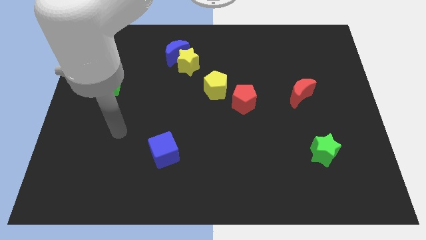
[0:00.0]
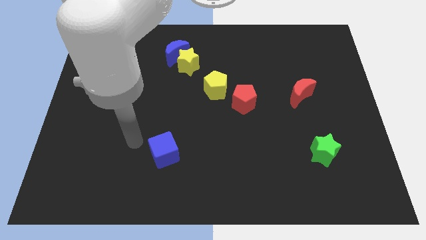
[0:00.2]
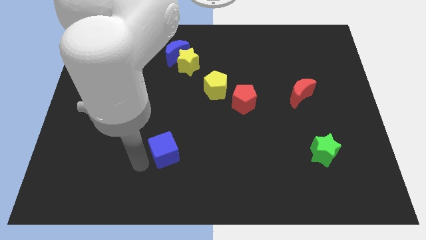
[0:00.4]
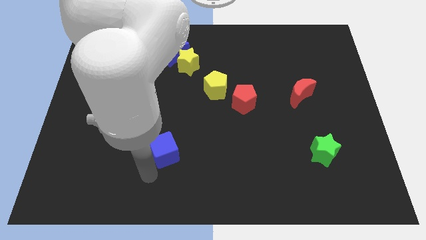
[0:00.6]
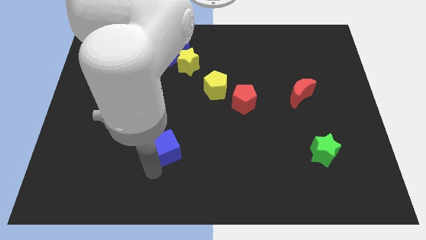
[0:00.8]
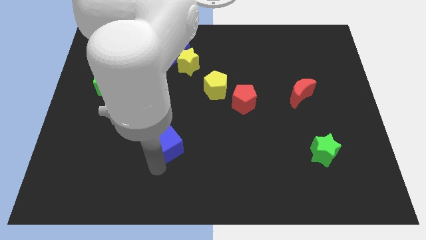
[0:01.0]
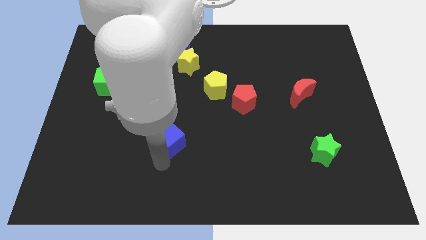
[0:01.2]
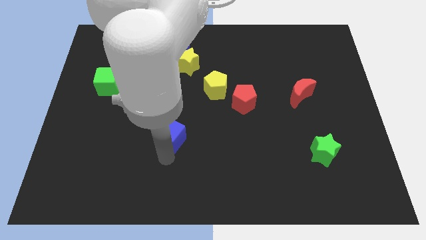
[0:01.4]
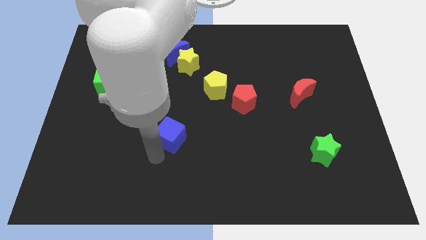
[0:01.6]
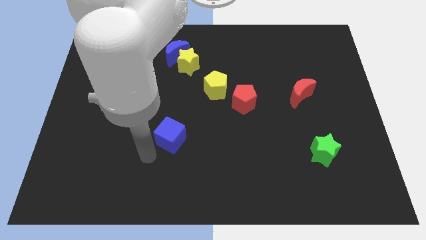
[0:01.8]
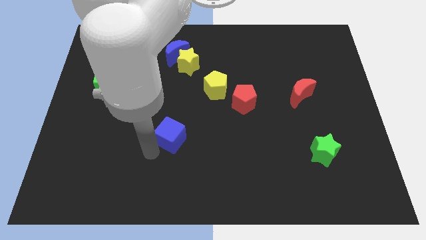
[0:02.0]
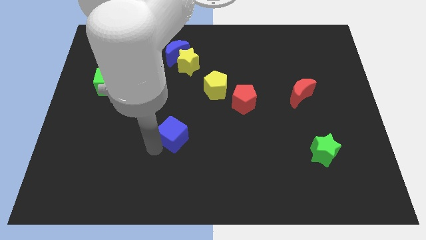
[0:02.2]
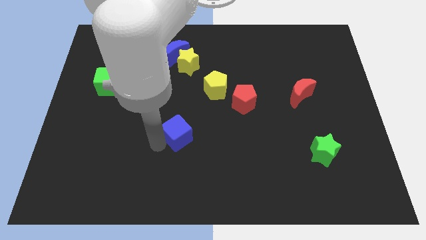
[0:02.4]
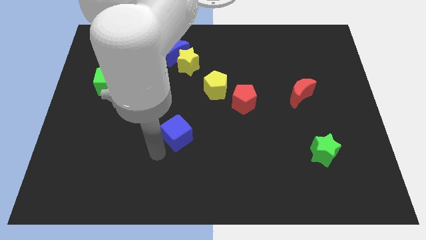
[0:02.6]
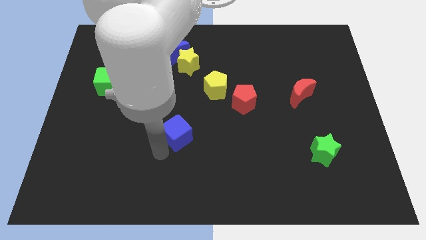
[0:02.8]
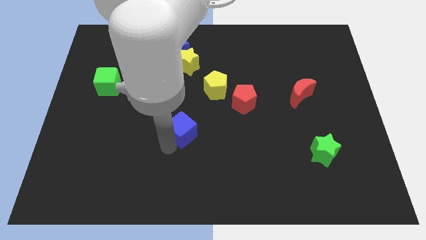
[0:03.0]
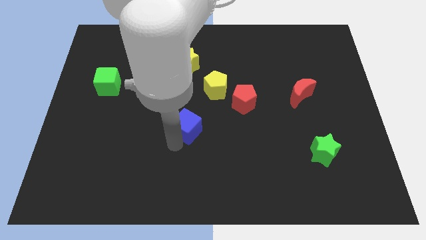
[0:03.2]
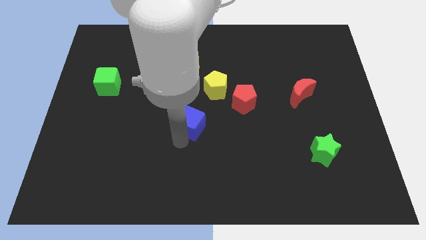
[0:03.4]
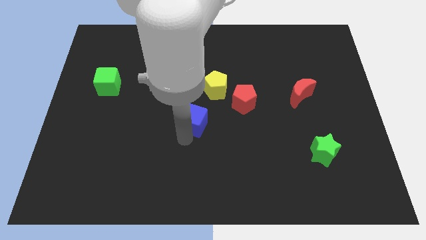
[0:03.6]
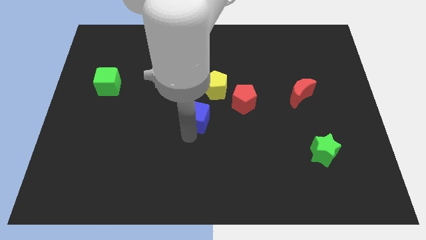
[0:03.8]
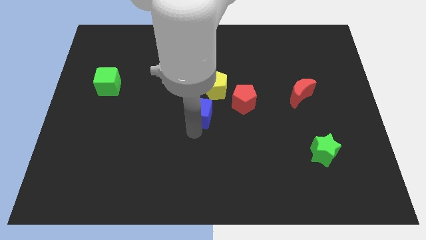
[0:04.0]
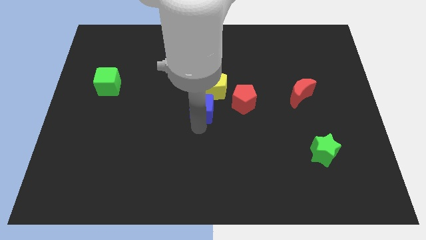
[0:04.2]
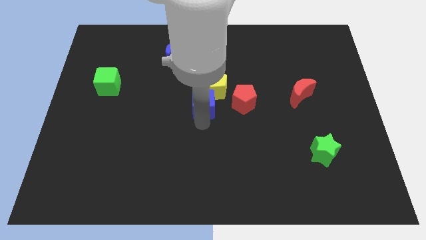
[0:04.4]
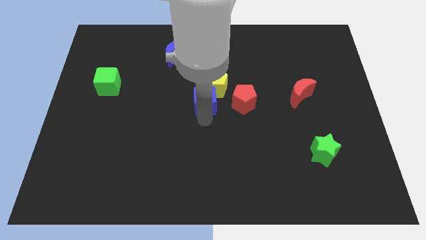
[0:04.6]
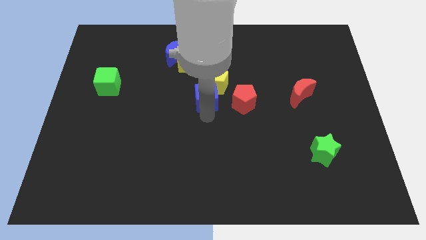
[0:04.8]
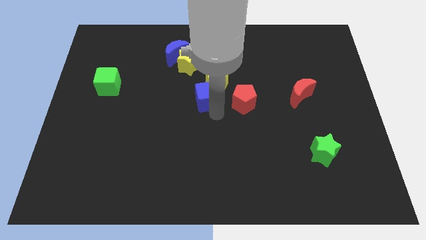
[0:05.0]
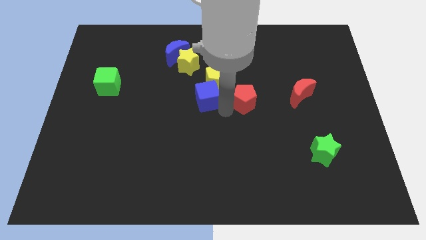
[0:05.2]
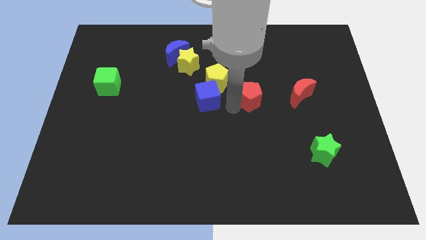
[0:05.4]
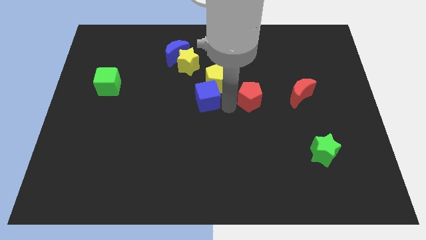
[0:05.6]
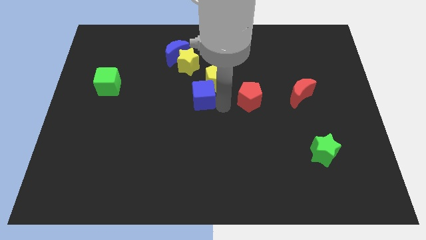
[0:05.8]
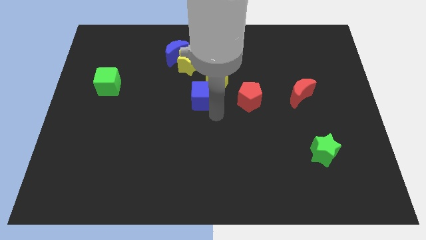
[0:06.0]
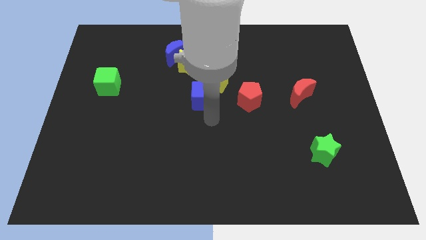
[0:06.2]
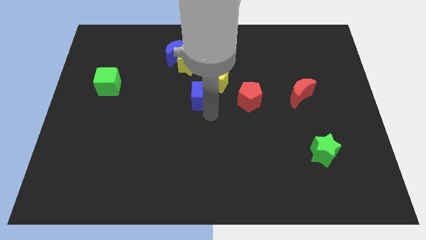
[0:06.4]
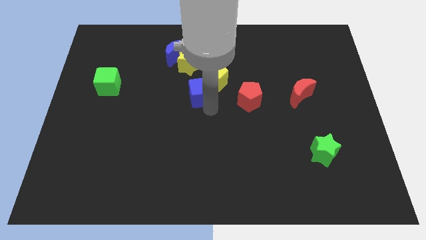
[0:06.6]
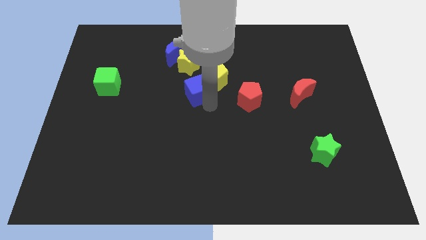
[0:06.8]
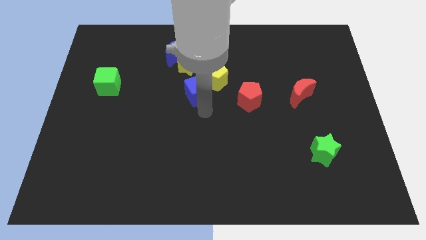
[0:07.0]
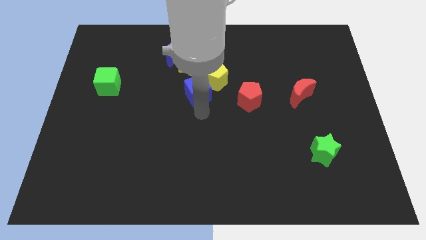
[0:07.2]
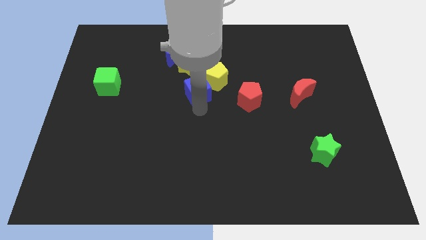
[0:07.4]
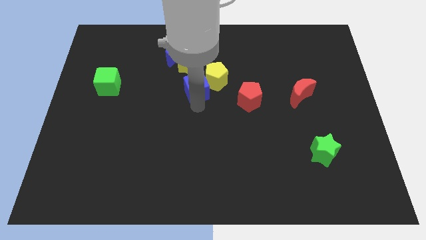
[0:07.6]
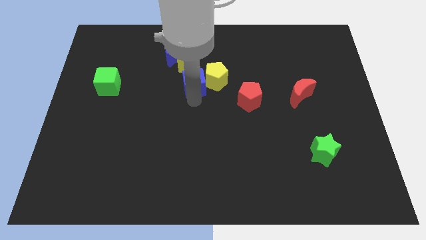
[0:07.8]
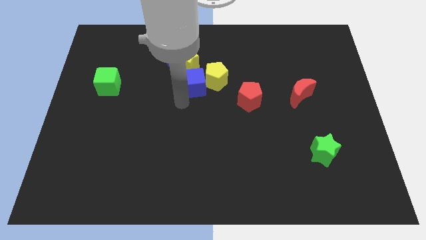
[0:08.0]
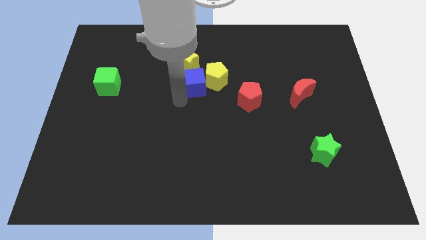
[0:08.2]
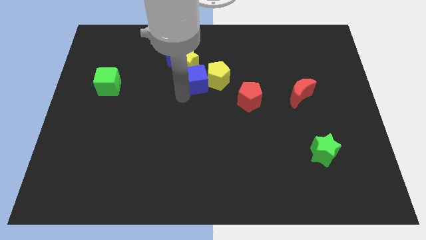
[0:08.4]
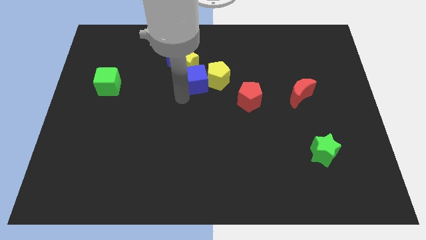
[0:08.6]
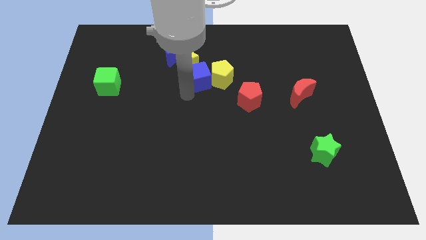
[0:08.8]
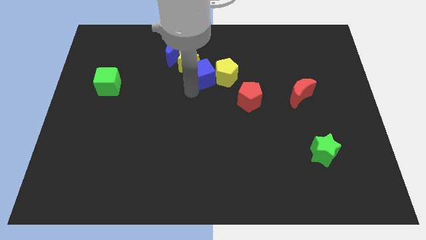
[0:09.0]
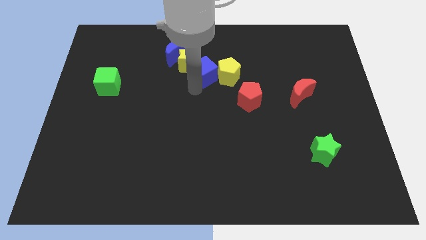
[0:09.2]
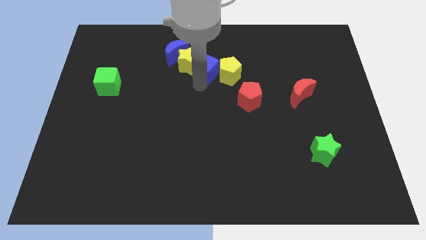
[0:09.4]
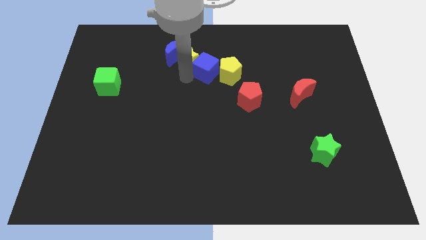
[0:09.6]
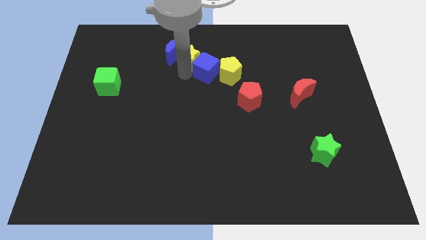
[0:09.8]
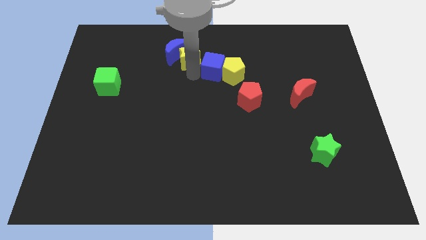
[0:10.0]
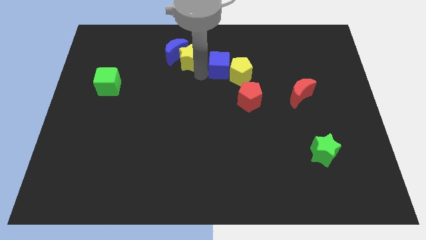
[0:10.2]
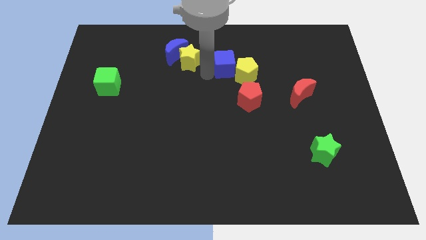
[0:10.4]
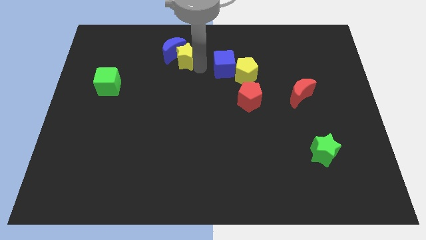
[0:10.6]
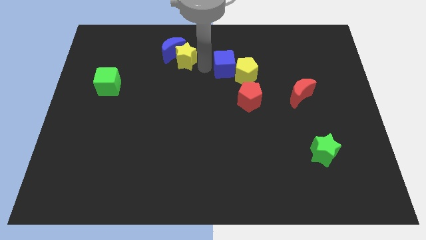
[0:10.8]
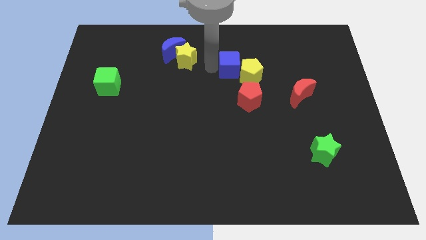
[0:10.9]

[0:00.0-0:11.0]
move the blue cube to the top of the red pentagon

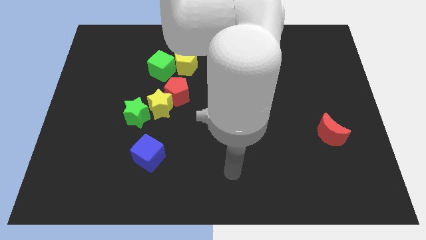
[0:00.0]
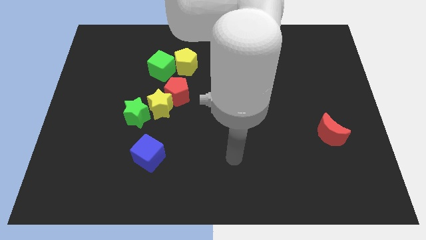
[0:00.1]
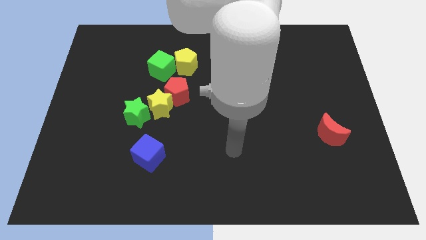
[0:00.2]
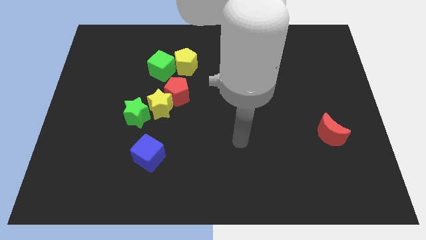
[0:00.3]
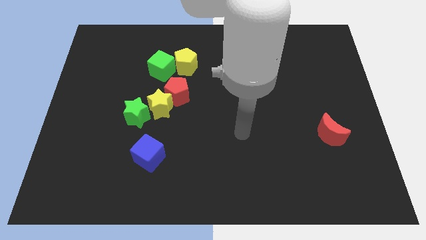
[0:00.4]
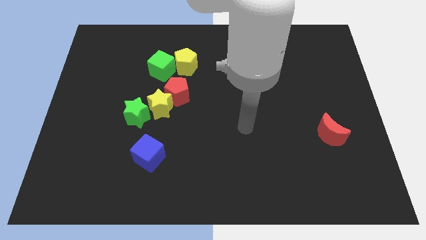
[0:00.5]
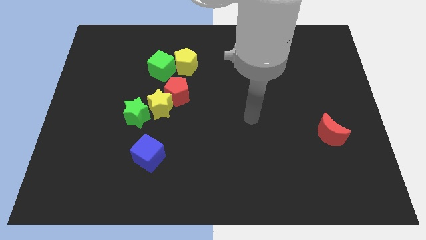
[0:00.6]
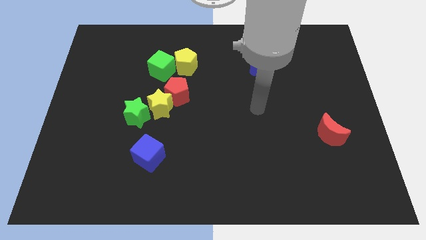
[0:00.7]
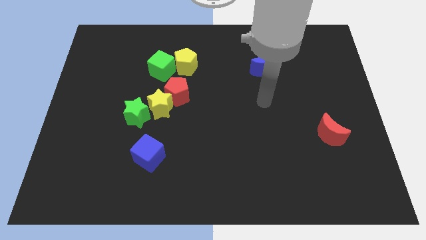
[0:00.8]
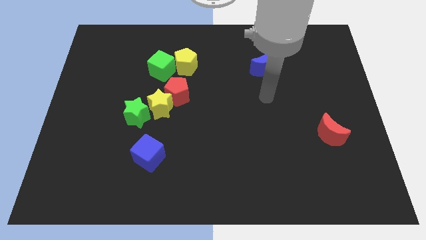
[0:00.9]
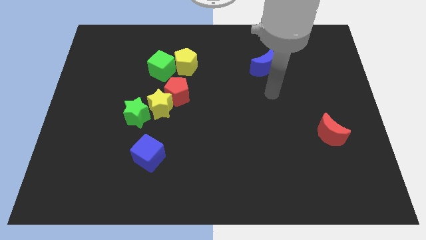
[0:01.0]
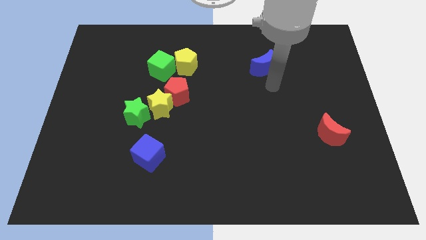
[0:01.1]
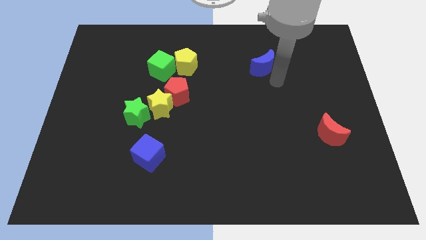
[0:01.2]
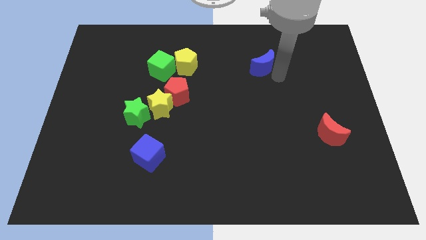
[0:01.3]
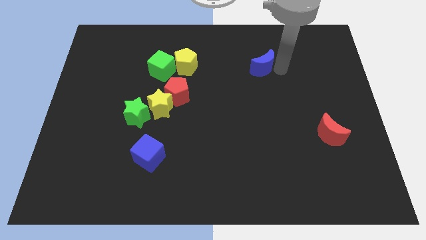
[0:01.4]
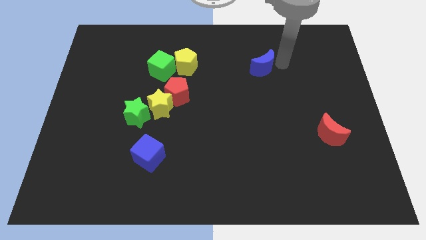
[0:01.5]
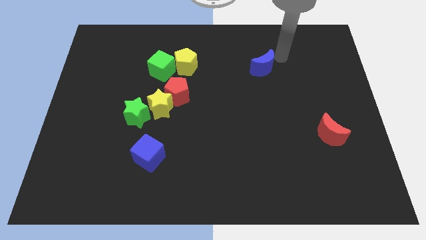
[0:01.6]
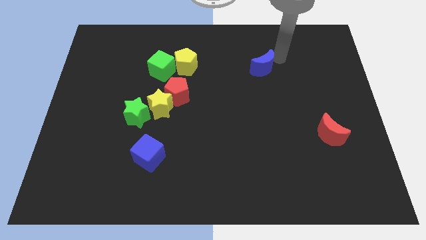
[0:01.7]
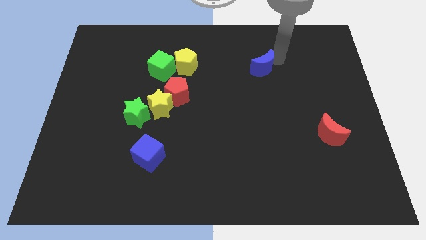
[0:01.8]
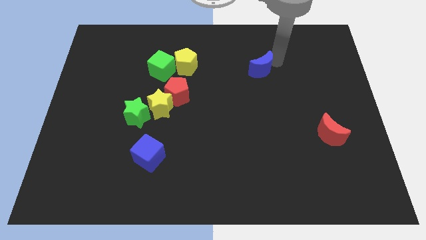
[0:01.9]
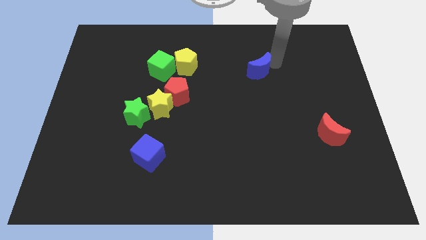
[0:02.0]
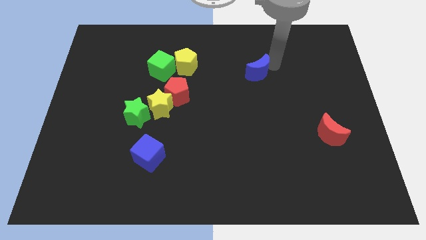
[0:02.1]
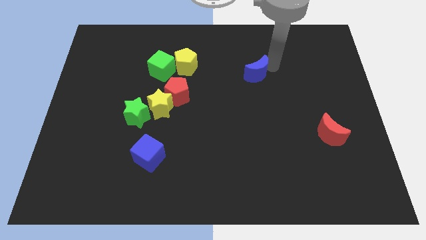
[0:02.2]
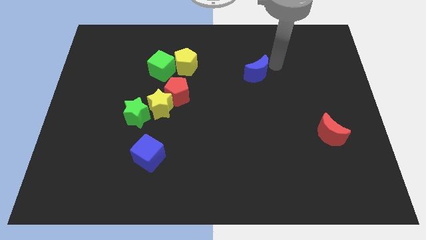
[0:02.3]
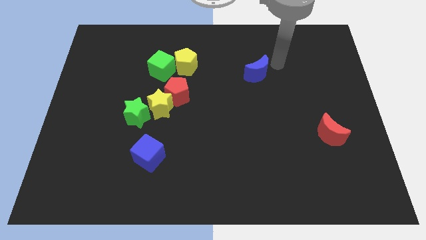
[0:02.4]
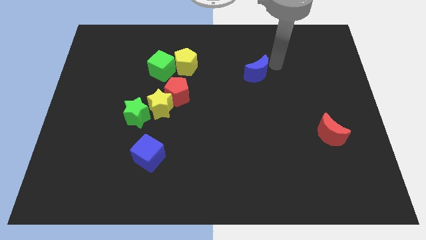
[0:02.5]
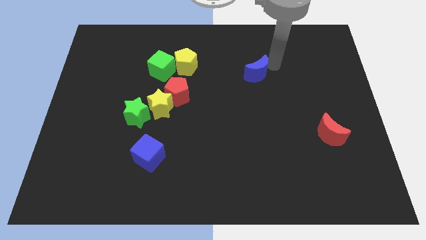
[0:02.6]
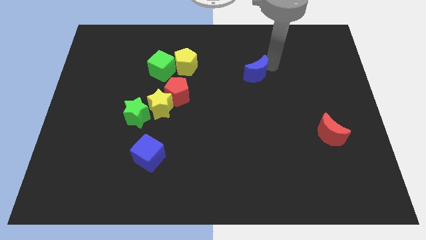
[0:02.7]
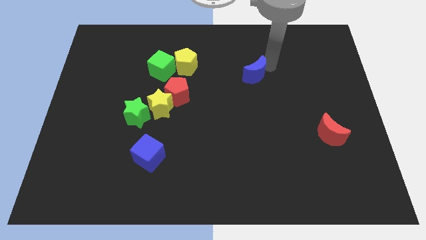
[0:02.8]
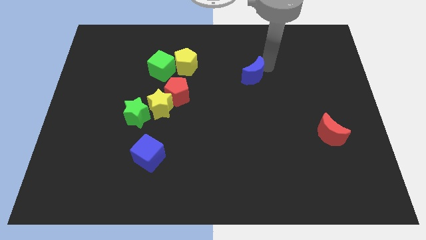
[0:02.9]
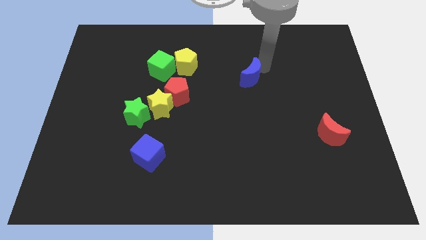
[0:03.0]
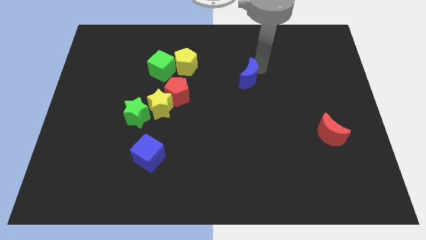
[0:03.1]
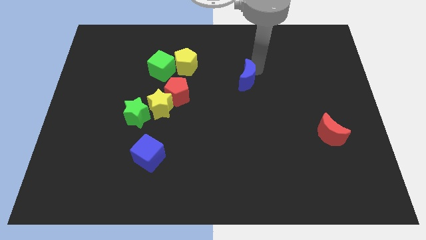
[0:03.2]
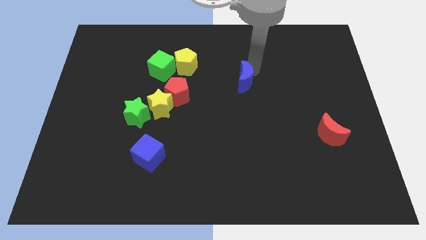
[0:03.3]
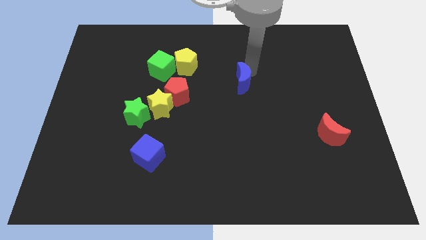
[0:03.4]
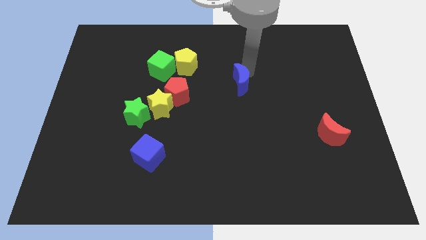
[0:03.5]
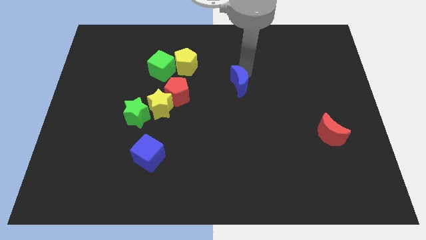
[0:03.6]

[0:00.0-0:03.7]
push the blue moon to the right of the red pentagon
